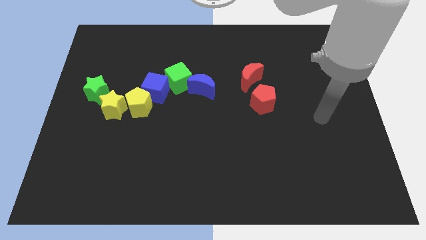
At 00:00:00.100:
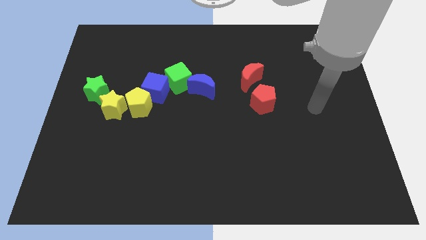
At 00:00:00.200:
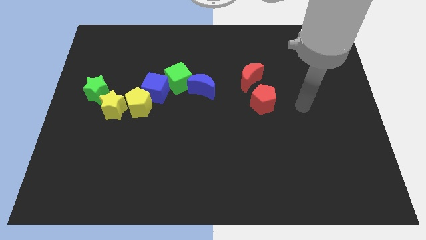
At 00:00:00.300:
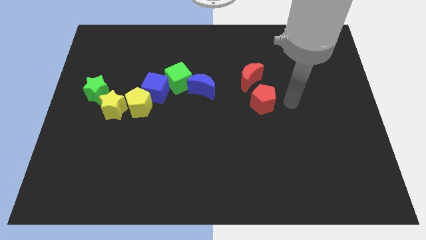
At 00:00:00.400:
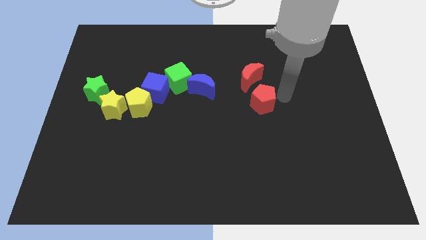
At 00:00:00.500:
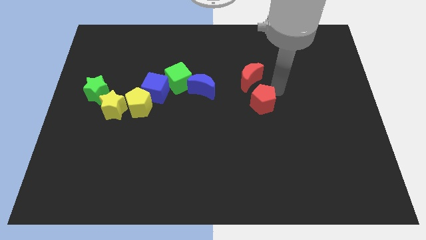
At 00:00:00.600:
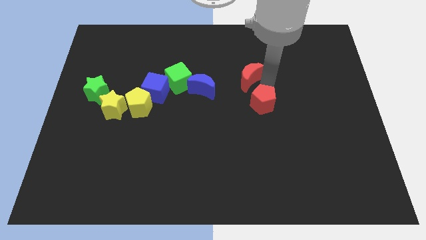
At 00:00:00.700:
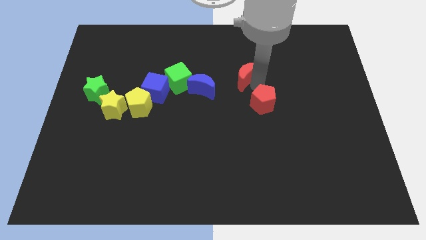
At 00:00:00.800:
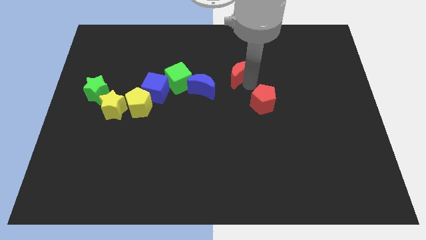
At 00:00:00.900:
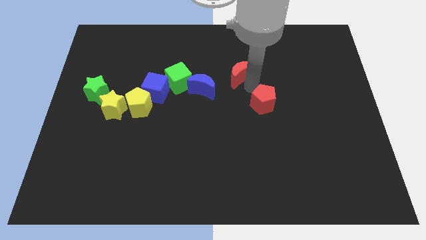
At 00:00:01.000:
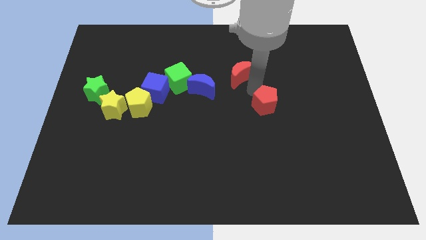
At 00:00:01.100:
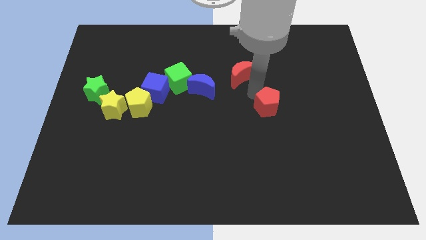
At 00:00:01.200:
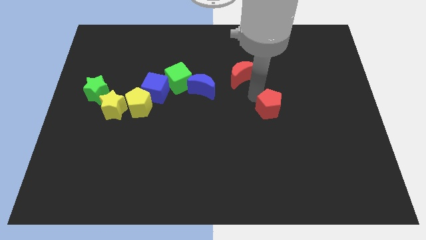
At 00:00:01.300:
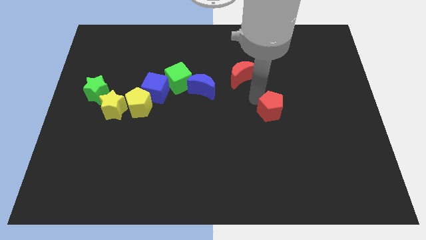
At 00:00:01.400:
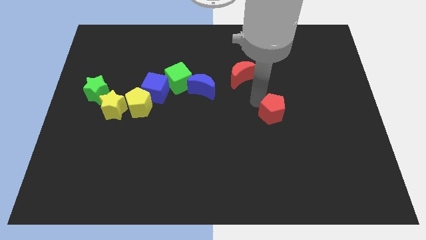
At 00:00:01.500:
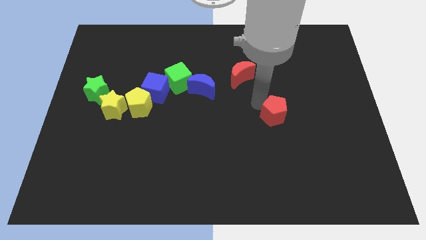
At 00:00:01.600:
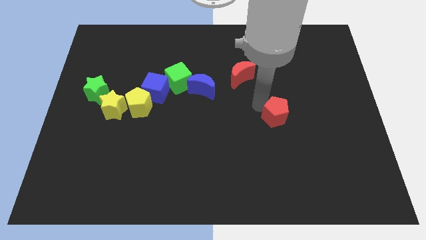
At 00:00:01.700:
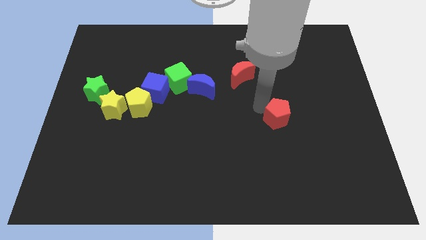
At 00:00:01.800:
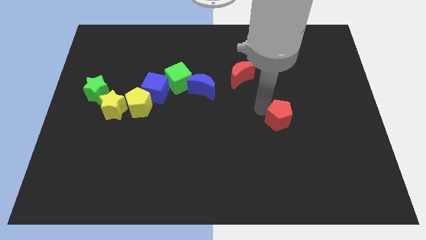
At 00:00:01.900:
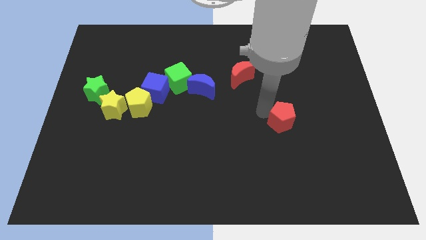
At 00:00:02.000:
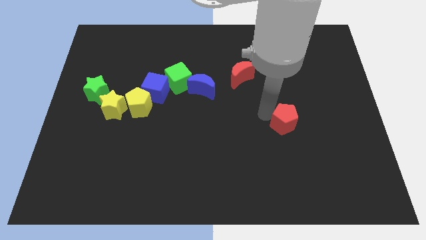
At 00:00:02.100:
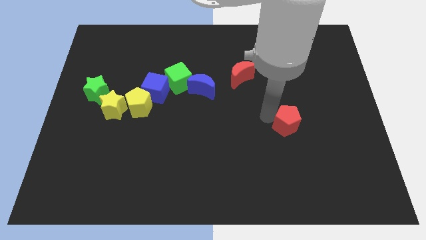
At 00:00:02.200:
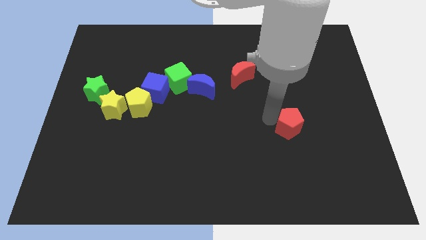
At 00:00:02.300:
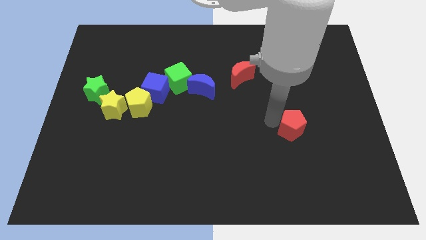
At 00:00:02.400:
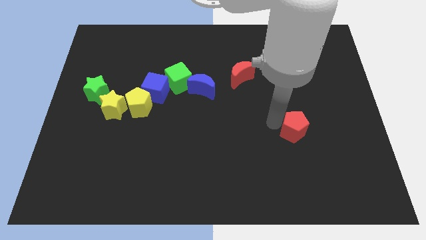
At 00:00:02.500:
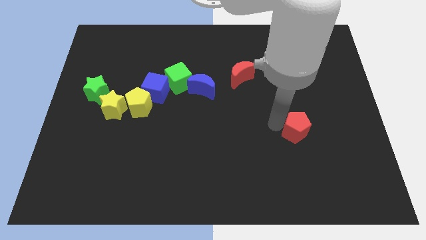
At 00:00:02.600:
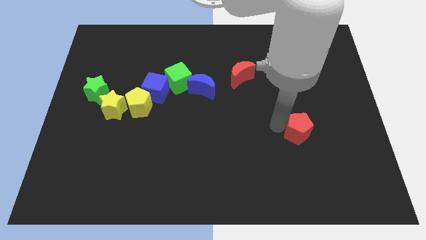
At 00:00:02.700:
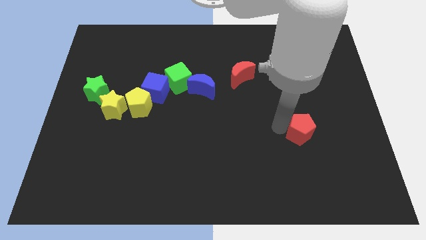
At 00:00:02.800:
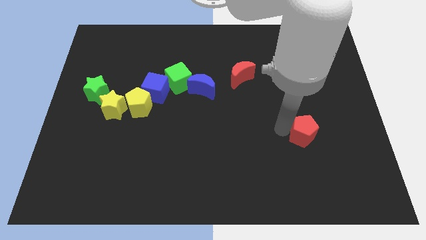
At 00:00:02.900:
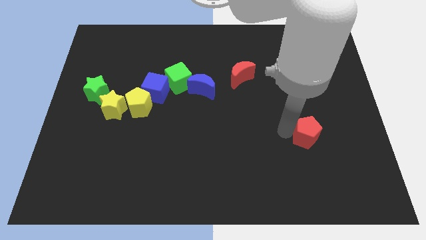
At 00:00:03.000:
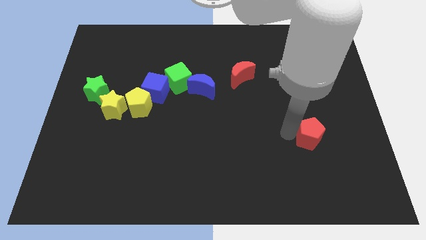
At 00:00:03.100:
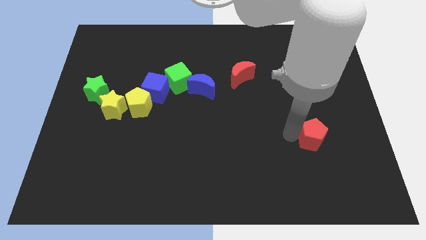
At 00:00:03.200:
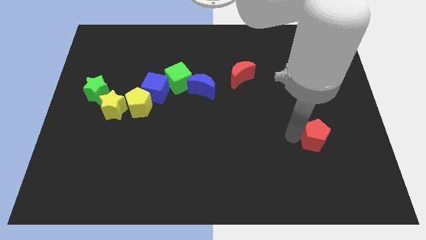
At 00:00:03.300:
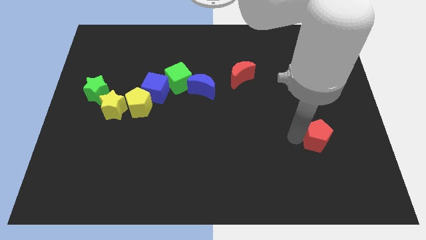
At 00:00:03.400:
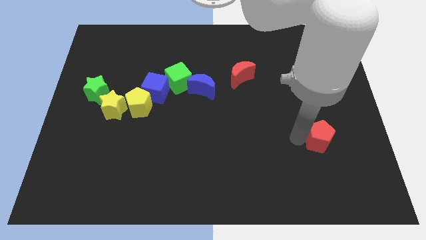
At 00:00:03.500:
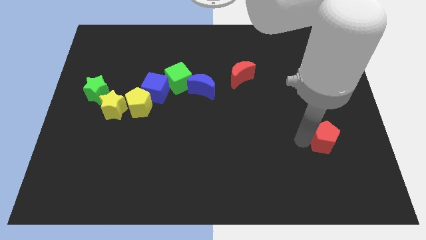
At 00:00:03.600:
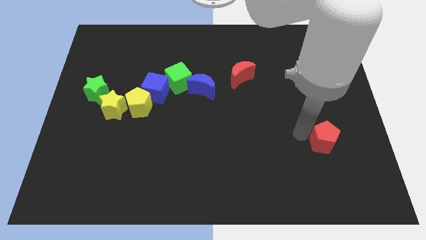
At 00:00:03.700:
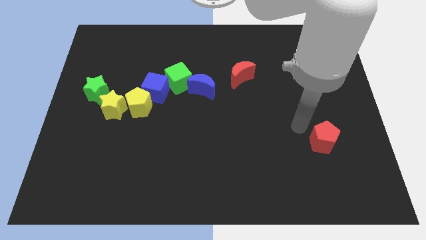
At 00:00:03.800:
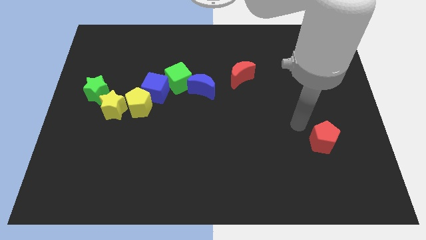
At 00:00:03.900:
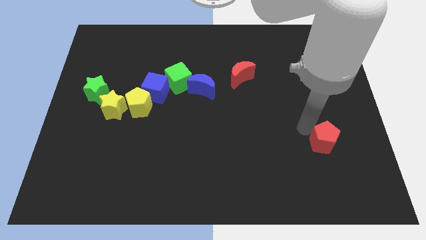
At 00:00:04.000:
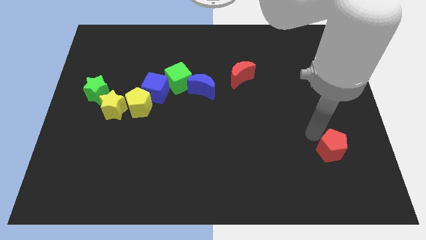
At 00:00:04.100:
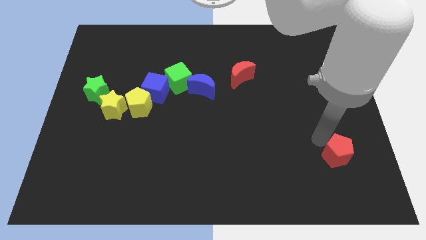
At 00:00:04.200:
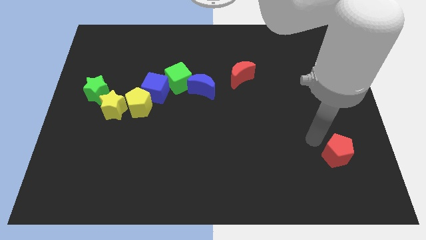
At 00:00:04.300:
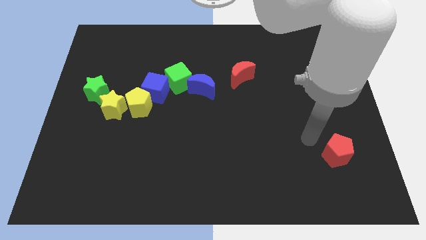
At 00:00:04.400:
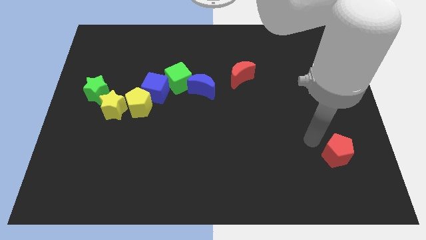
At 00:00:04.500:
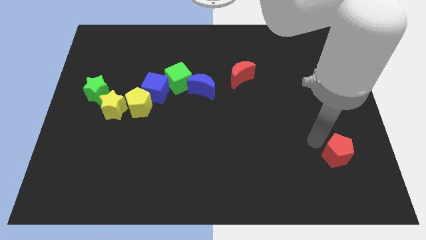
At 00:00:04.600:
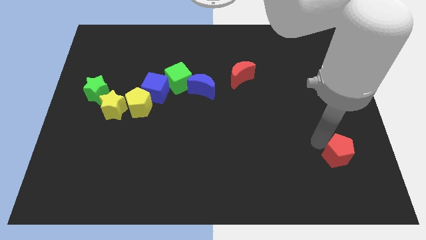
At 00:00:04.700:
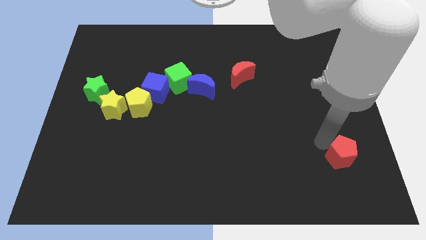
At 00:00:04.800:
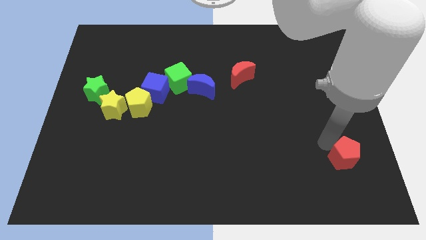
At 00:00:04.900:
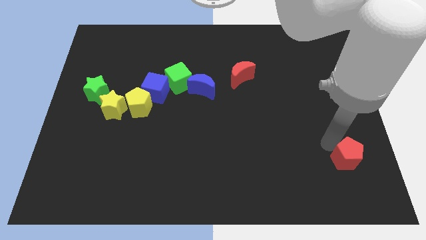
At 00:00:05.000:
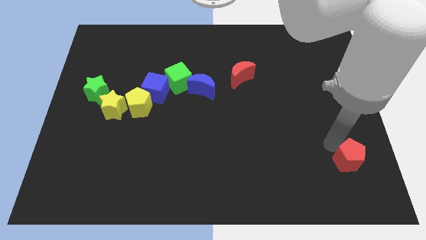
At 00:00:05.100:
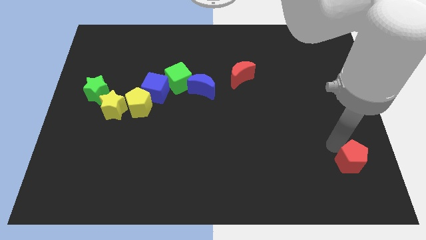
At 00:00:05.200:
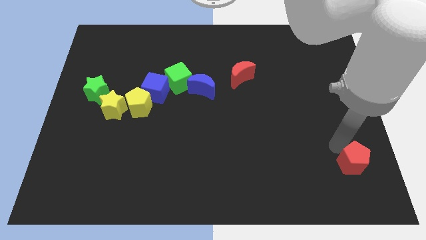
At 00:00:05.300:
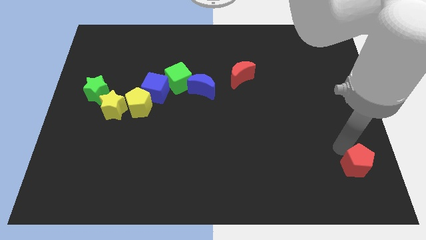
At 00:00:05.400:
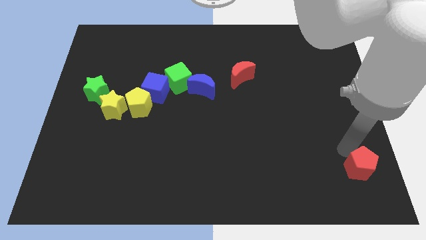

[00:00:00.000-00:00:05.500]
move the red pentagon to the bottom right of the board

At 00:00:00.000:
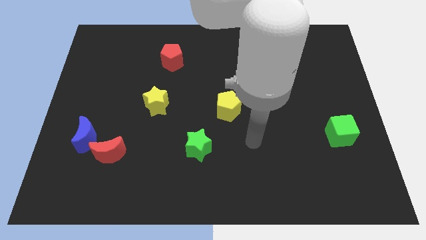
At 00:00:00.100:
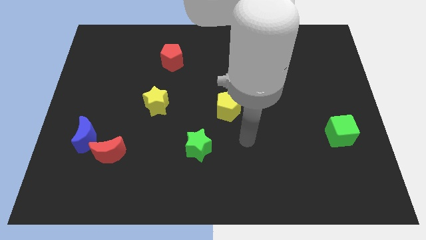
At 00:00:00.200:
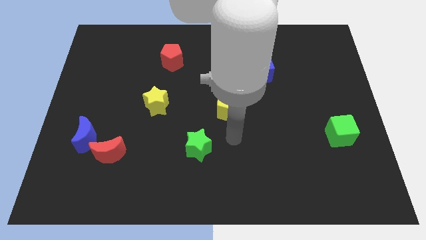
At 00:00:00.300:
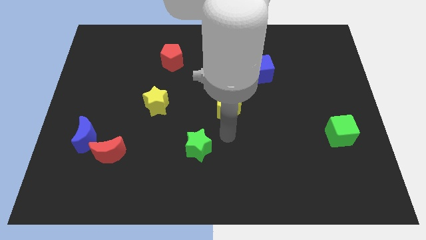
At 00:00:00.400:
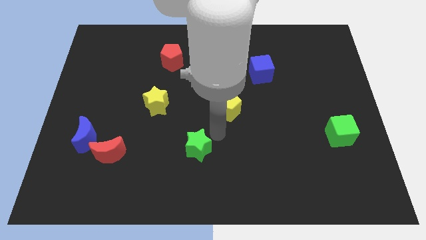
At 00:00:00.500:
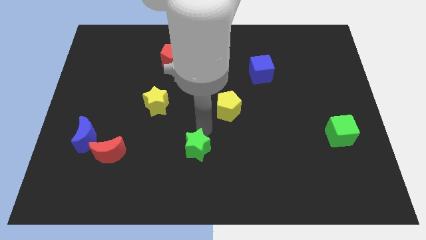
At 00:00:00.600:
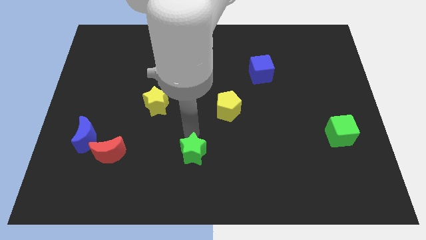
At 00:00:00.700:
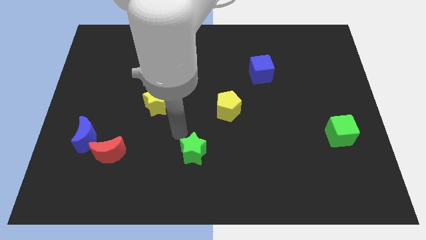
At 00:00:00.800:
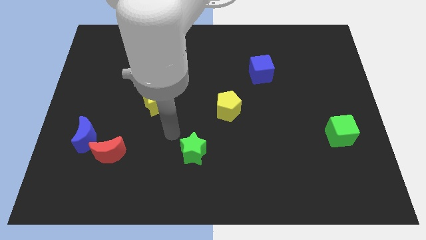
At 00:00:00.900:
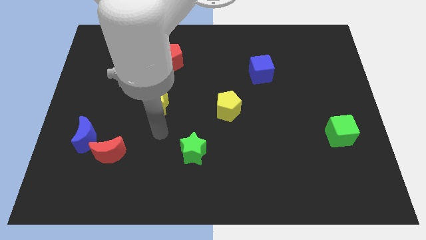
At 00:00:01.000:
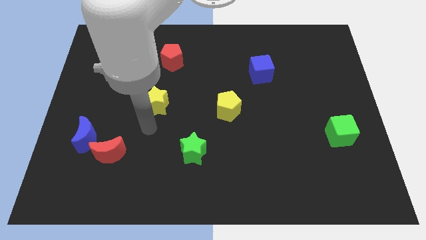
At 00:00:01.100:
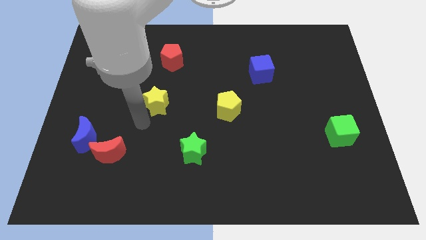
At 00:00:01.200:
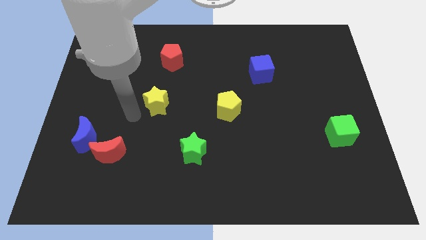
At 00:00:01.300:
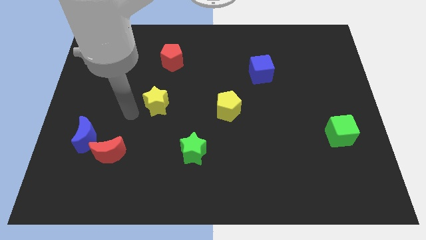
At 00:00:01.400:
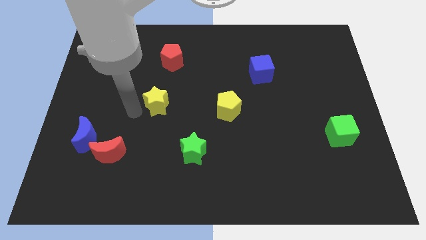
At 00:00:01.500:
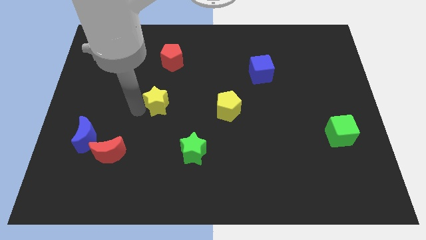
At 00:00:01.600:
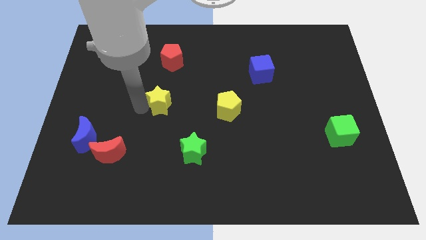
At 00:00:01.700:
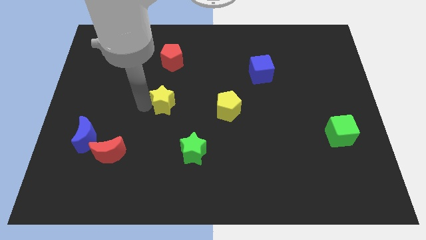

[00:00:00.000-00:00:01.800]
put the yellow star to the middle
